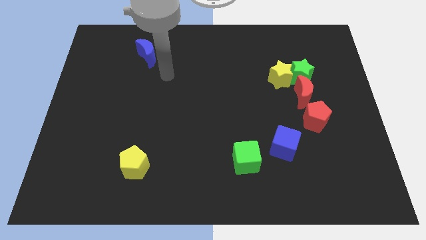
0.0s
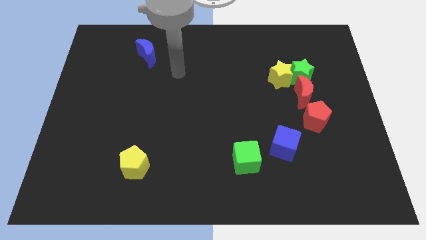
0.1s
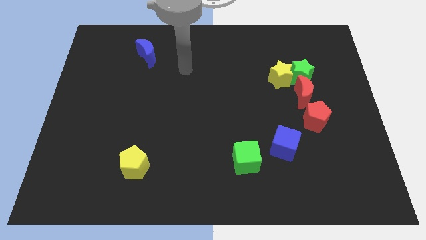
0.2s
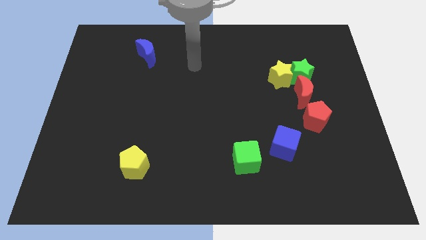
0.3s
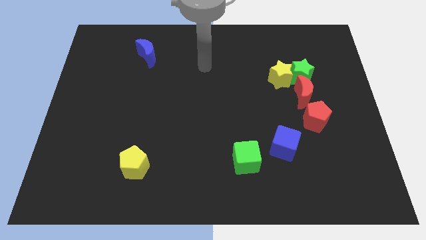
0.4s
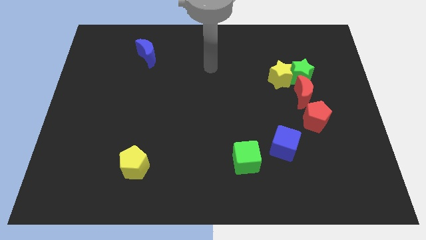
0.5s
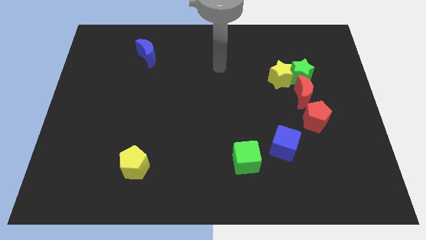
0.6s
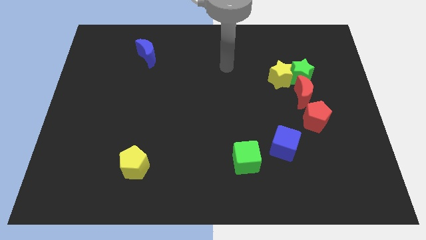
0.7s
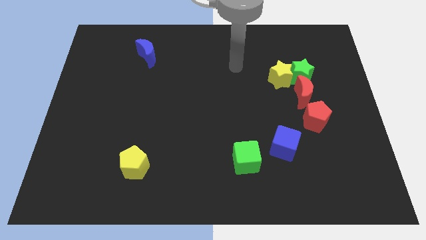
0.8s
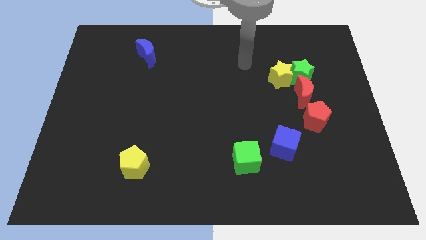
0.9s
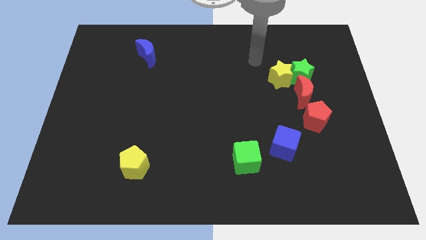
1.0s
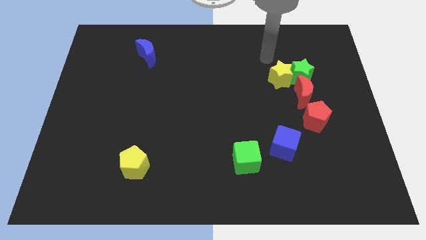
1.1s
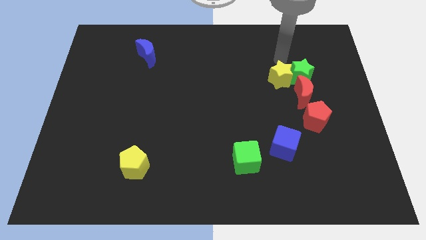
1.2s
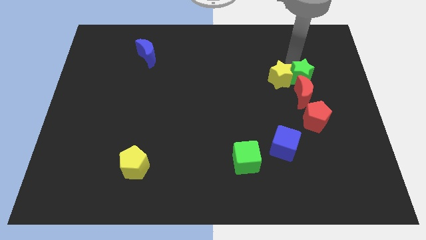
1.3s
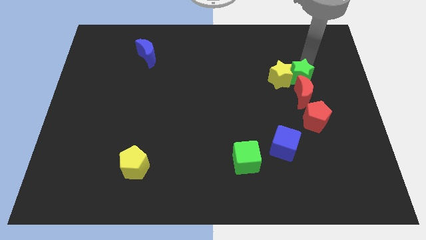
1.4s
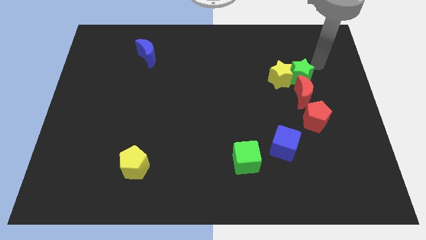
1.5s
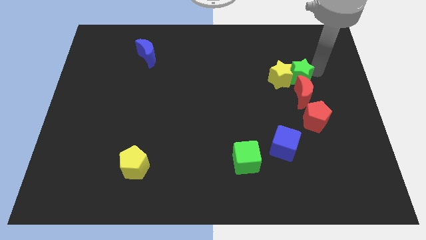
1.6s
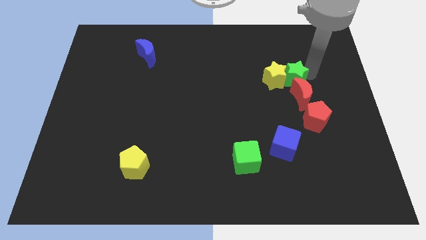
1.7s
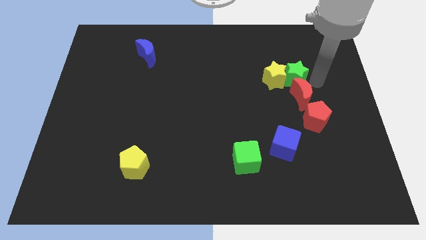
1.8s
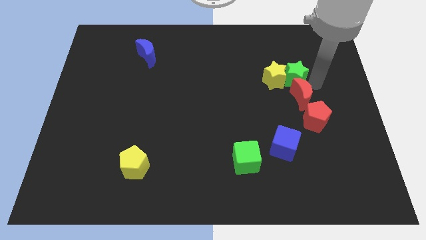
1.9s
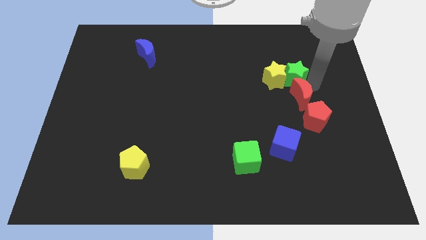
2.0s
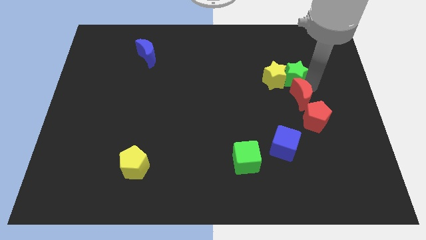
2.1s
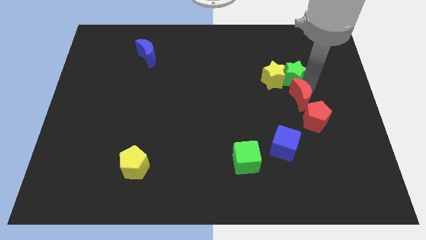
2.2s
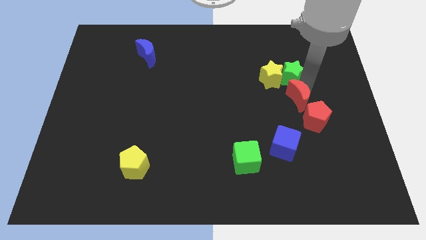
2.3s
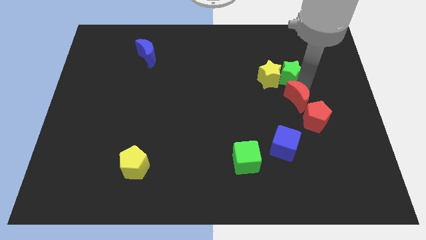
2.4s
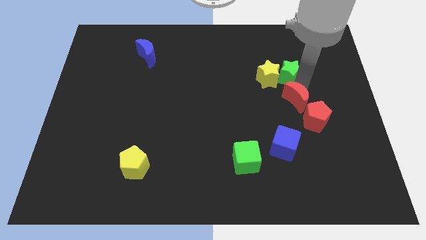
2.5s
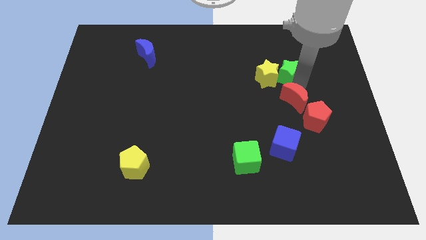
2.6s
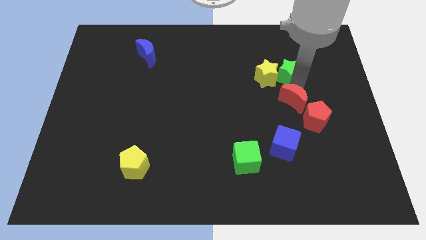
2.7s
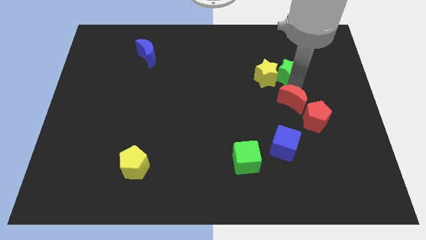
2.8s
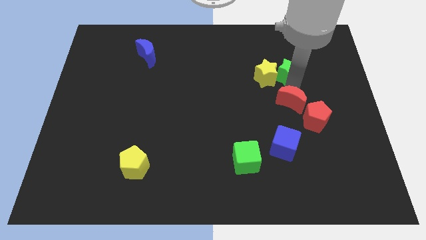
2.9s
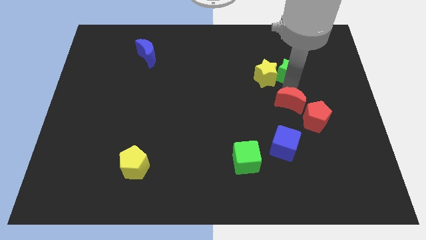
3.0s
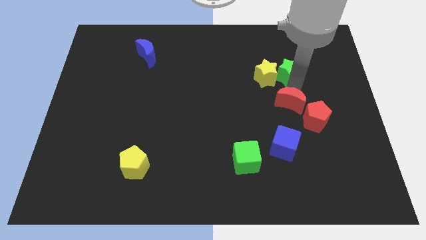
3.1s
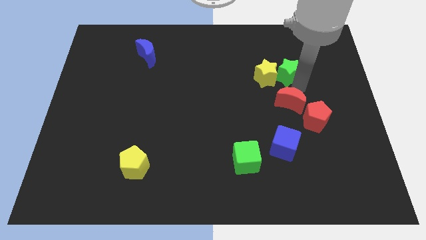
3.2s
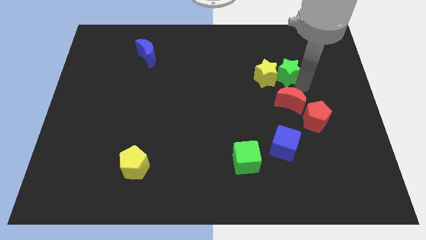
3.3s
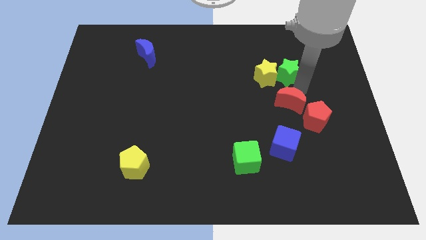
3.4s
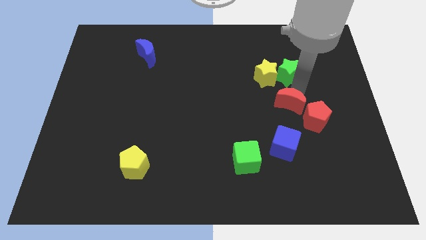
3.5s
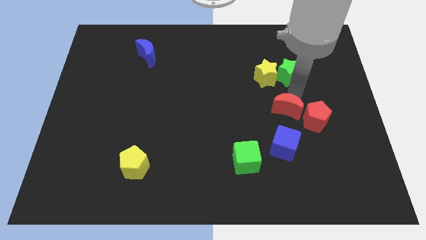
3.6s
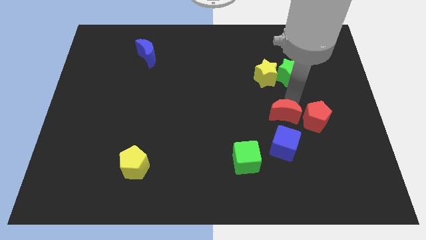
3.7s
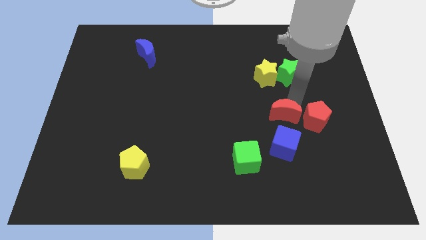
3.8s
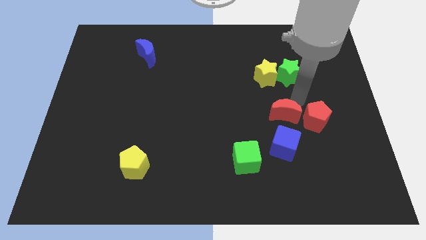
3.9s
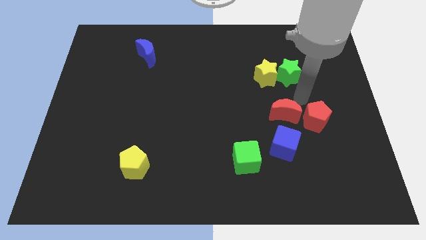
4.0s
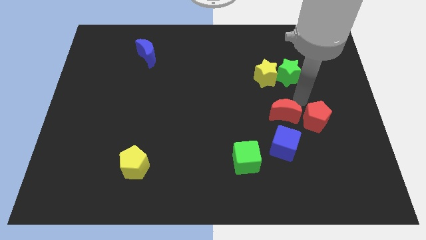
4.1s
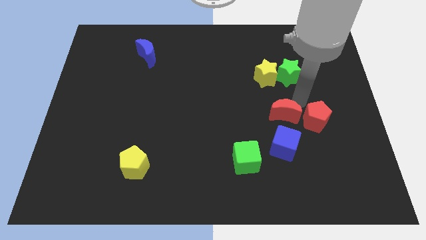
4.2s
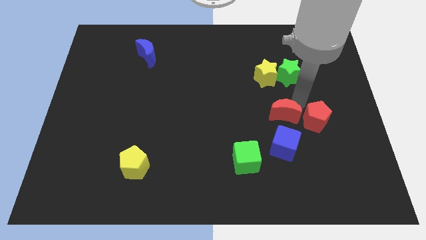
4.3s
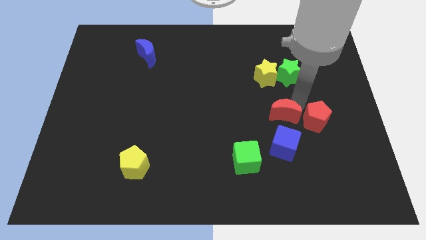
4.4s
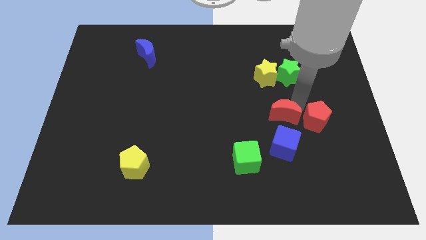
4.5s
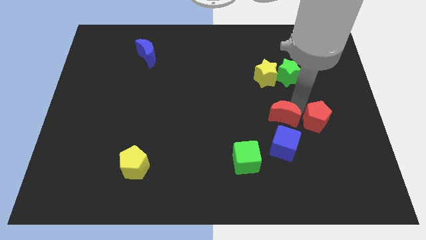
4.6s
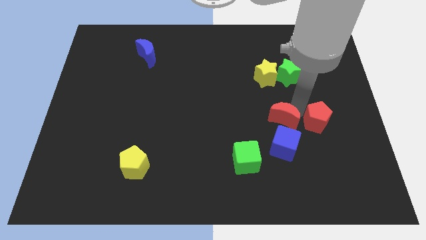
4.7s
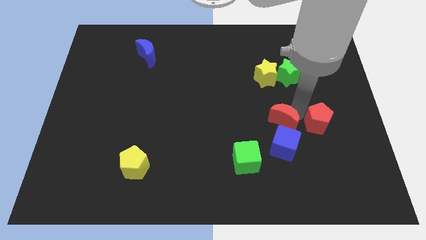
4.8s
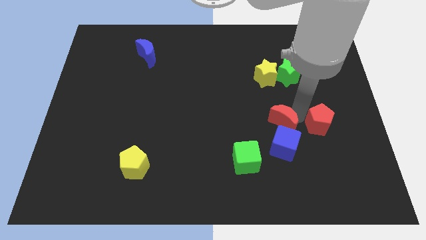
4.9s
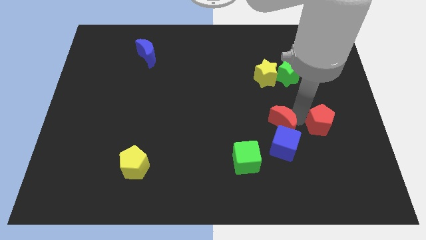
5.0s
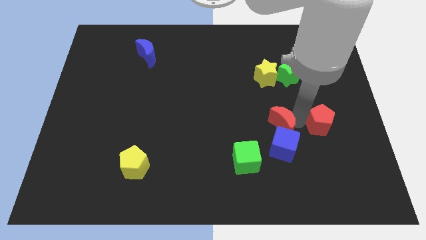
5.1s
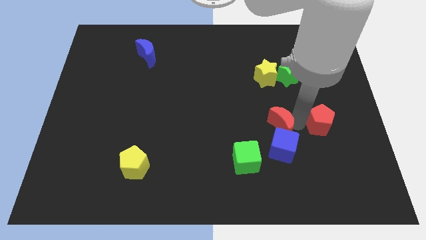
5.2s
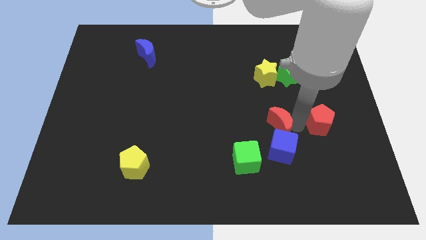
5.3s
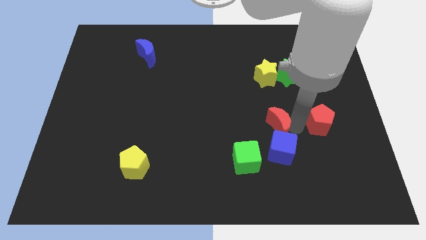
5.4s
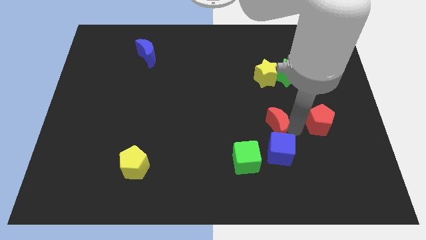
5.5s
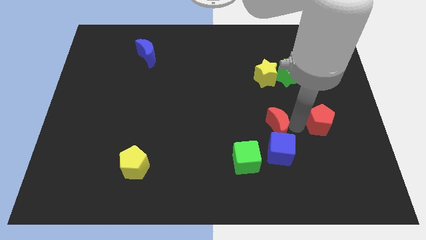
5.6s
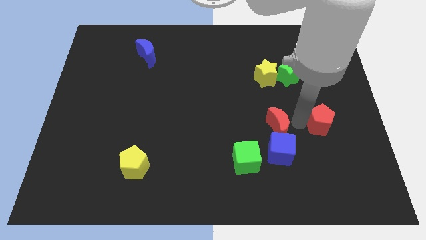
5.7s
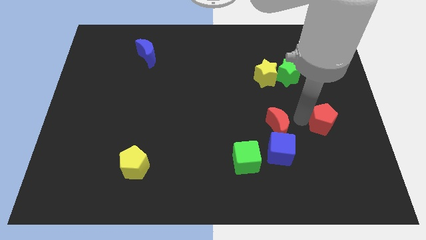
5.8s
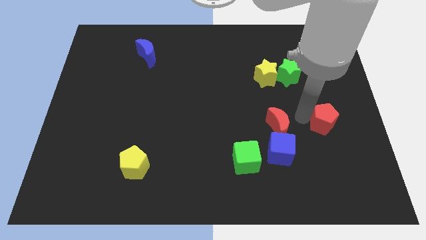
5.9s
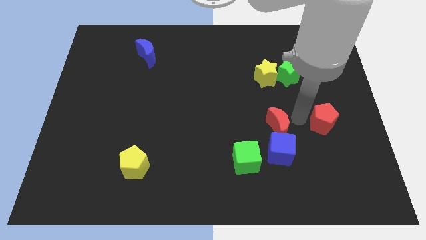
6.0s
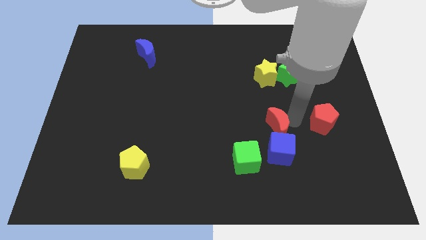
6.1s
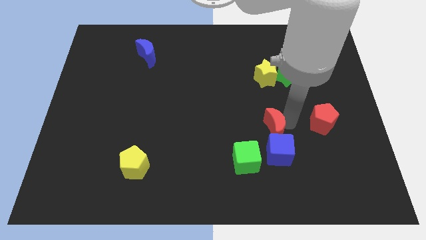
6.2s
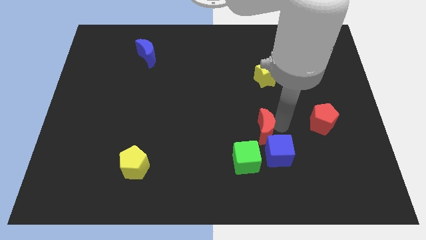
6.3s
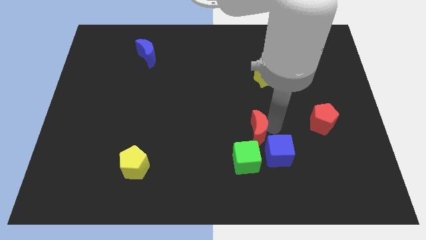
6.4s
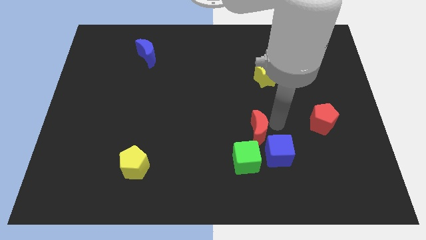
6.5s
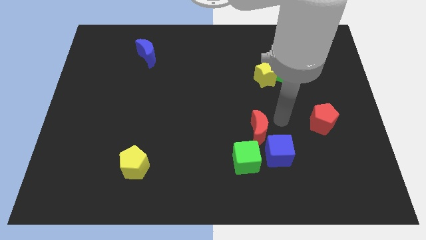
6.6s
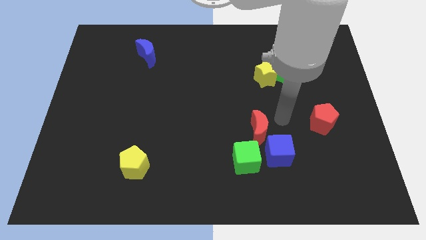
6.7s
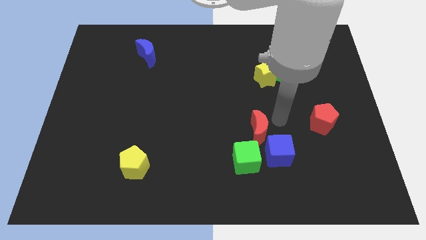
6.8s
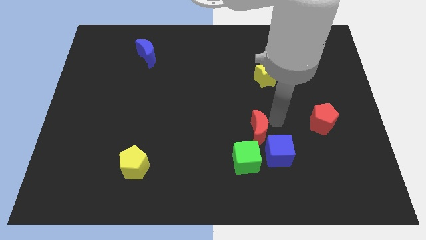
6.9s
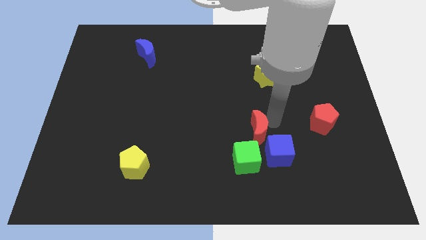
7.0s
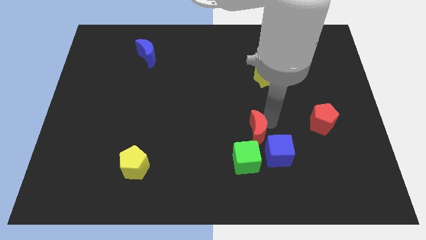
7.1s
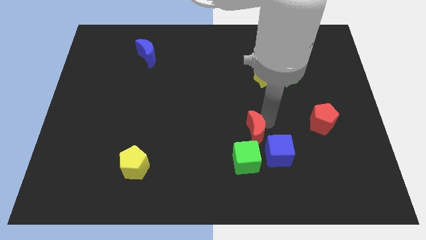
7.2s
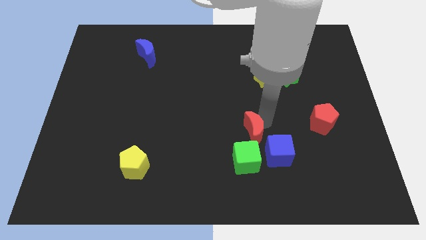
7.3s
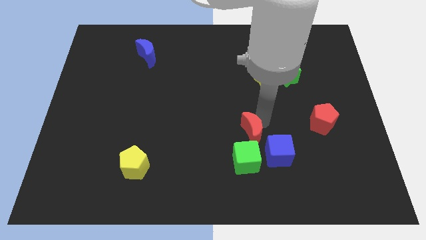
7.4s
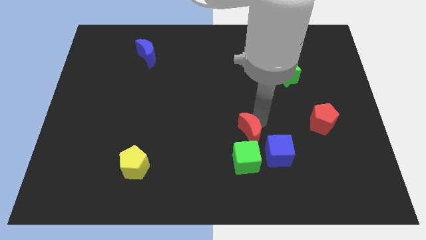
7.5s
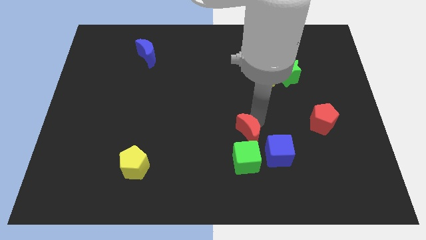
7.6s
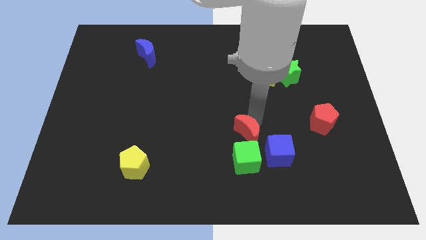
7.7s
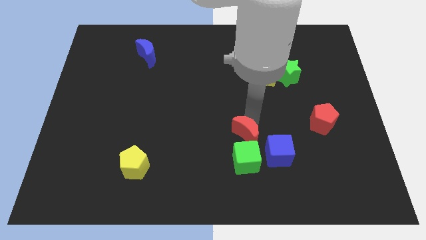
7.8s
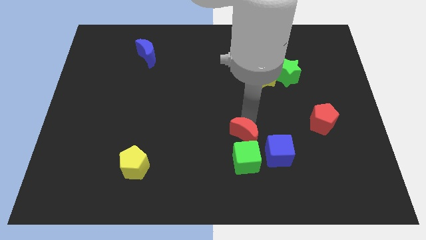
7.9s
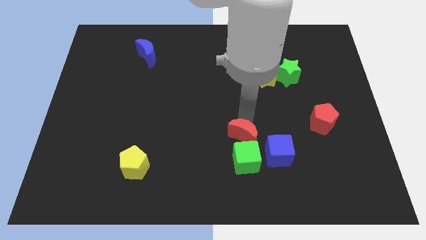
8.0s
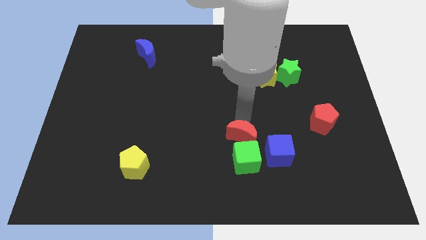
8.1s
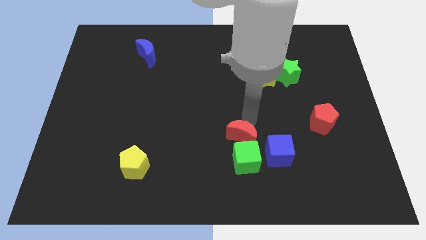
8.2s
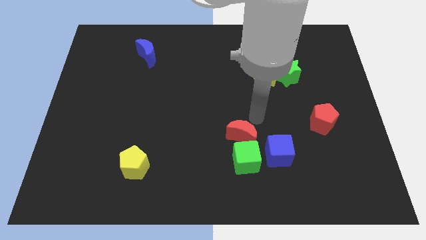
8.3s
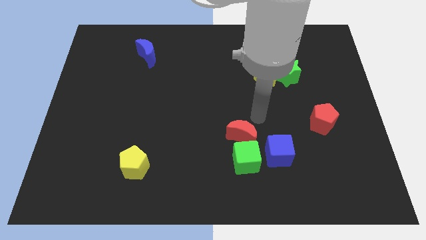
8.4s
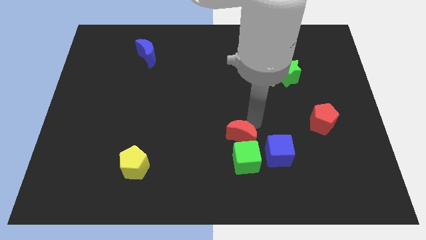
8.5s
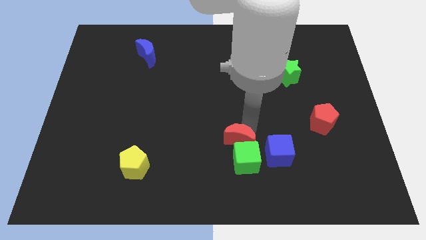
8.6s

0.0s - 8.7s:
push the red moon down and then left
